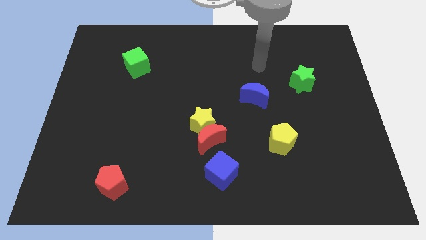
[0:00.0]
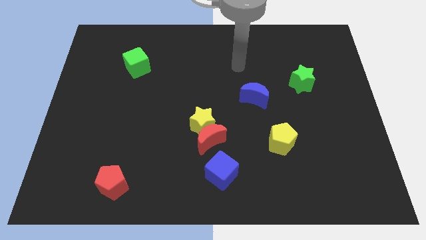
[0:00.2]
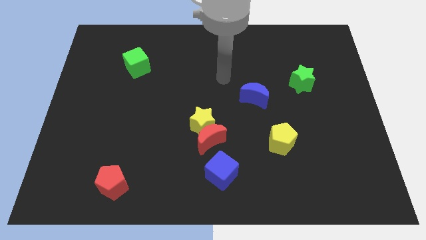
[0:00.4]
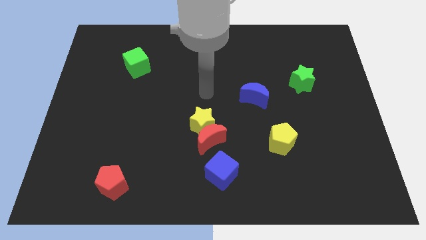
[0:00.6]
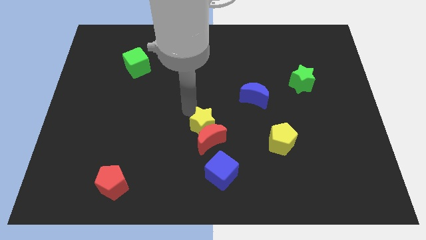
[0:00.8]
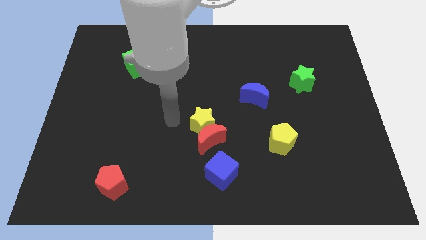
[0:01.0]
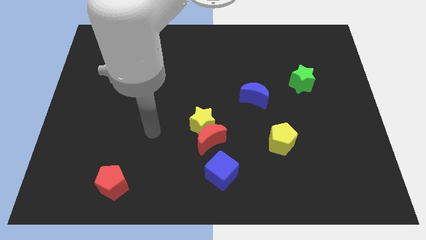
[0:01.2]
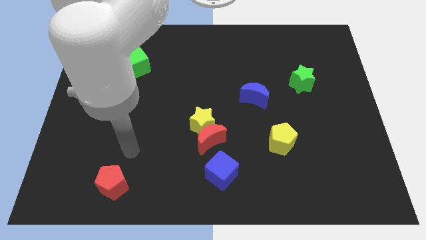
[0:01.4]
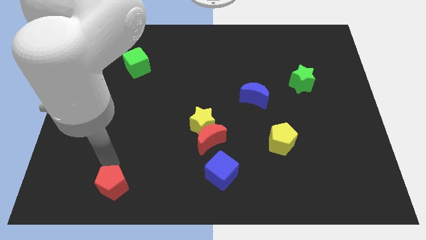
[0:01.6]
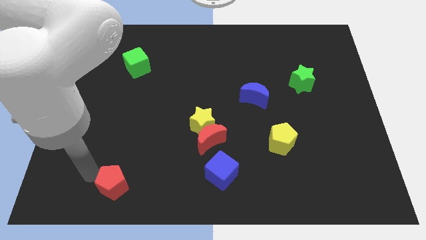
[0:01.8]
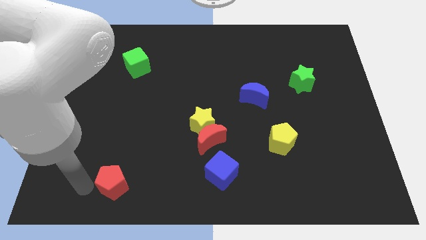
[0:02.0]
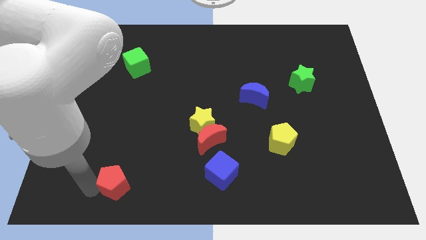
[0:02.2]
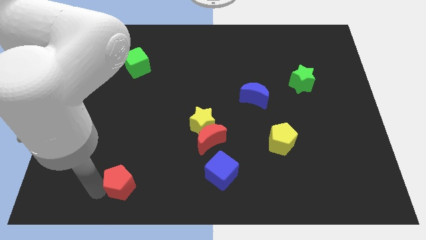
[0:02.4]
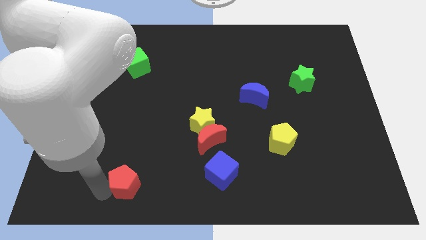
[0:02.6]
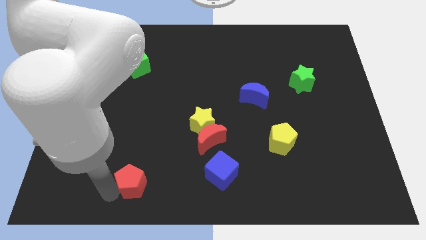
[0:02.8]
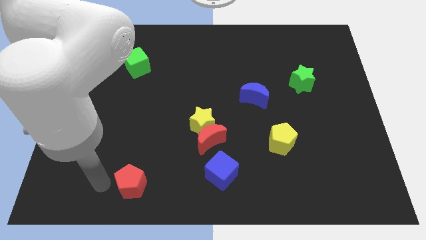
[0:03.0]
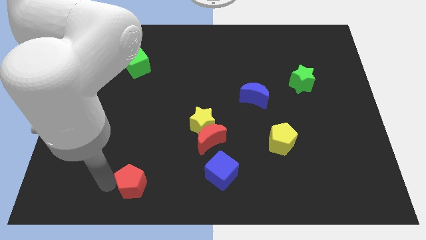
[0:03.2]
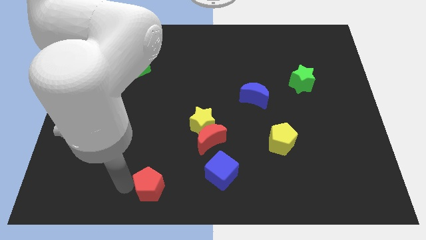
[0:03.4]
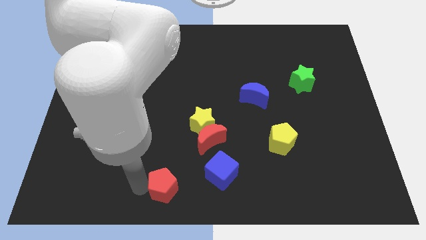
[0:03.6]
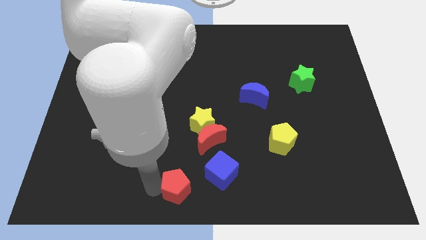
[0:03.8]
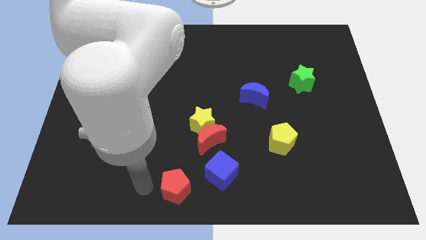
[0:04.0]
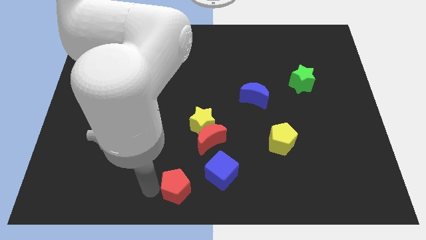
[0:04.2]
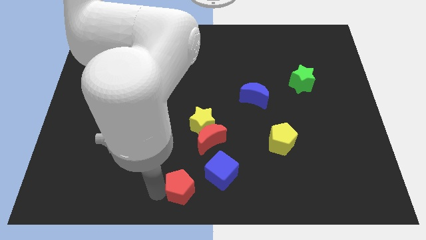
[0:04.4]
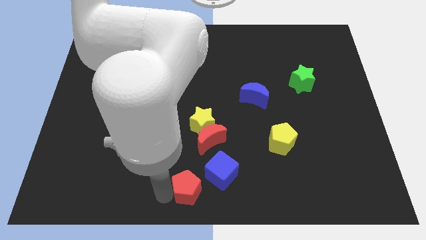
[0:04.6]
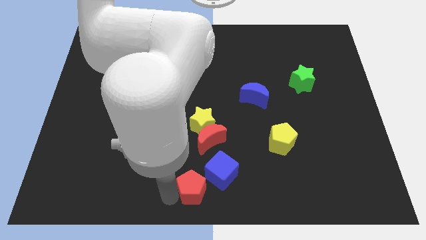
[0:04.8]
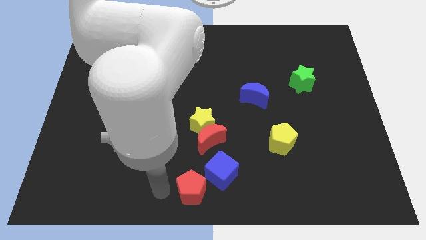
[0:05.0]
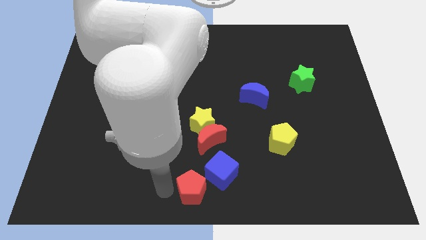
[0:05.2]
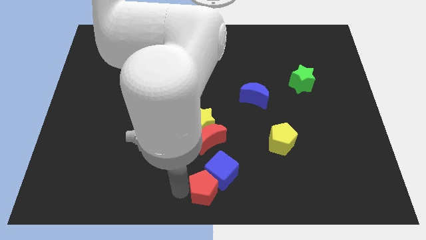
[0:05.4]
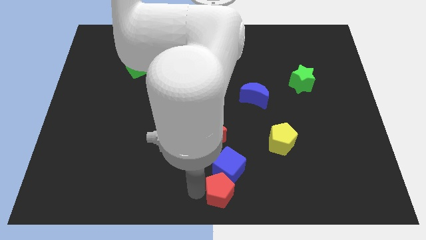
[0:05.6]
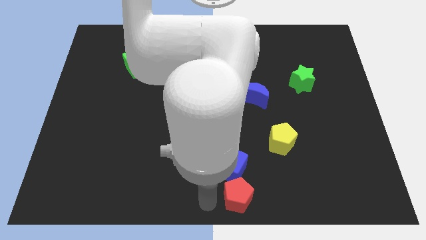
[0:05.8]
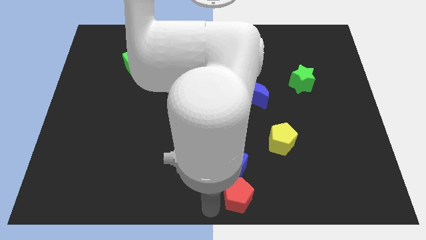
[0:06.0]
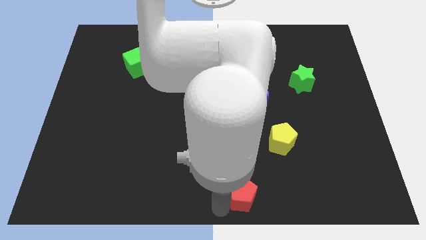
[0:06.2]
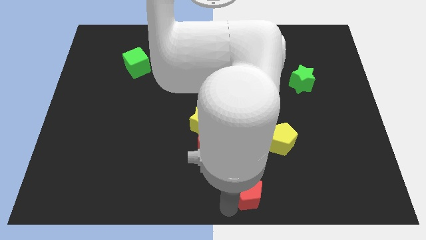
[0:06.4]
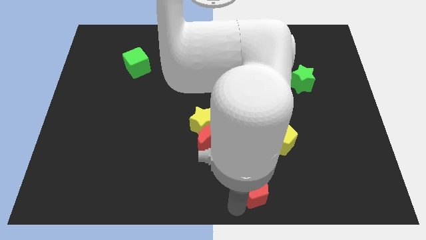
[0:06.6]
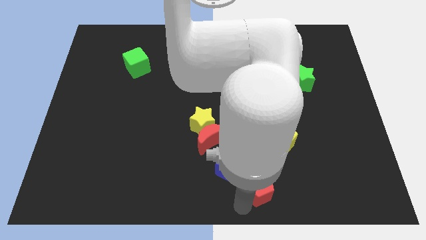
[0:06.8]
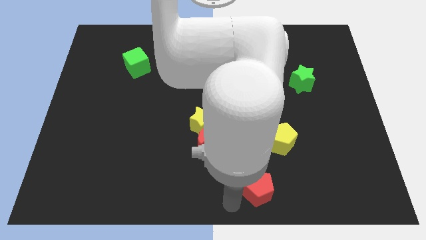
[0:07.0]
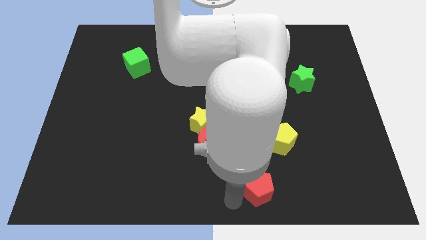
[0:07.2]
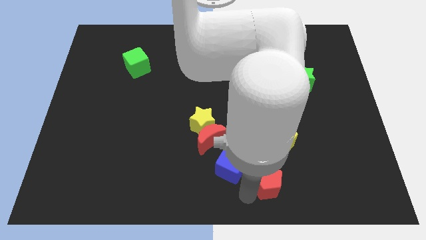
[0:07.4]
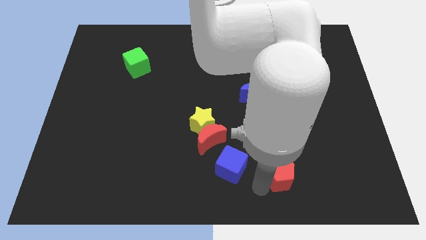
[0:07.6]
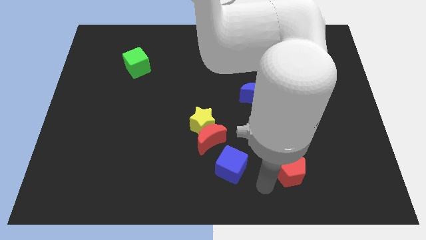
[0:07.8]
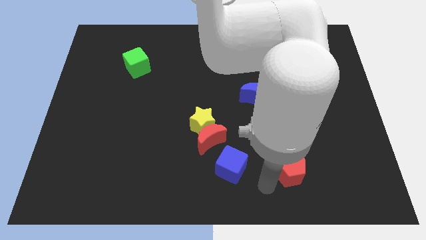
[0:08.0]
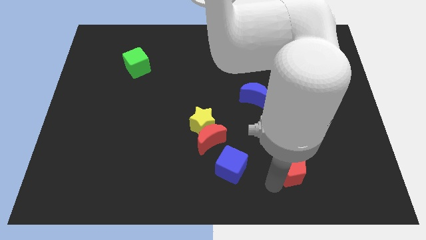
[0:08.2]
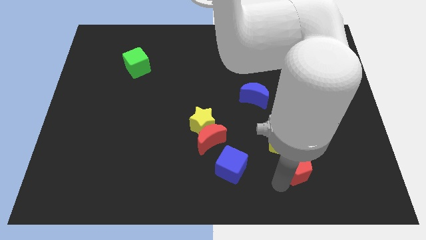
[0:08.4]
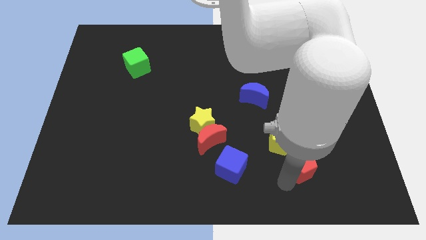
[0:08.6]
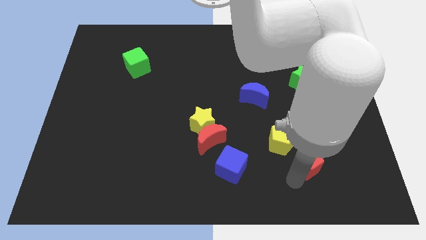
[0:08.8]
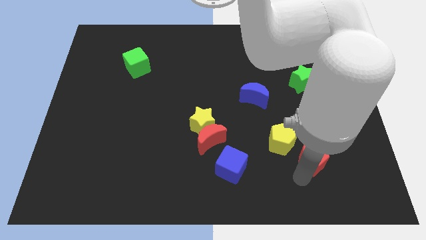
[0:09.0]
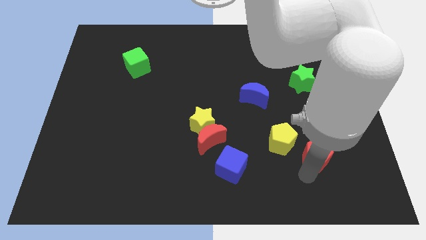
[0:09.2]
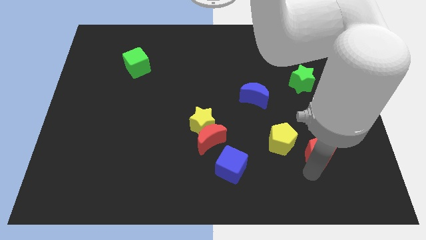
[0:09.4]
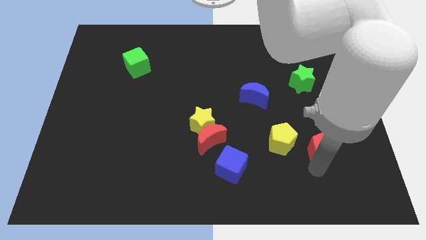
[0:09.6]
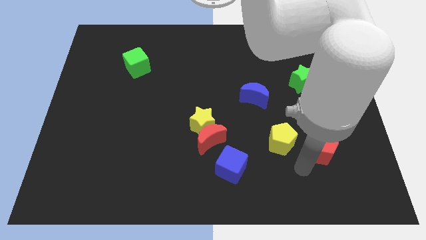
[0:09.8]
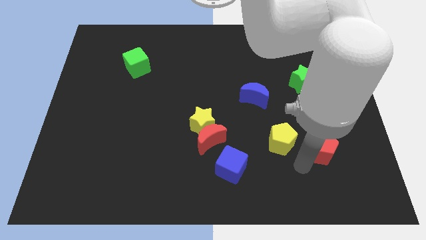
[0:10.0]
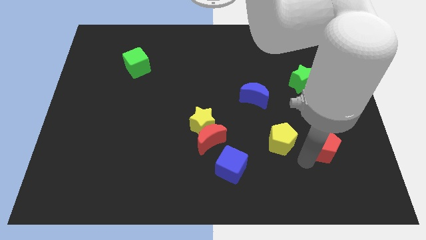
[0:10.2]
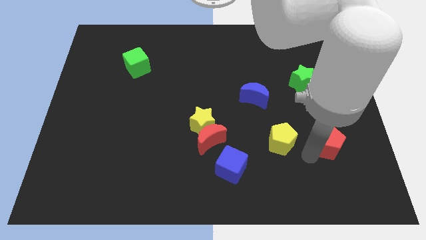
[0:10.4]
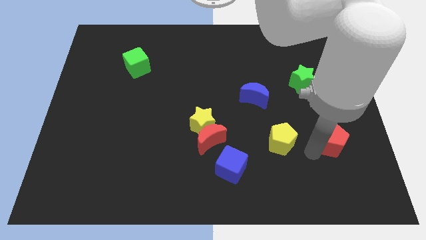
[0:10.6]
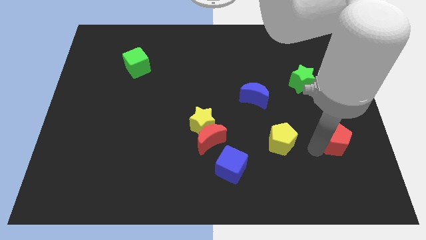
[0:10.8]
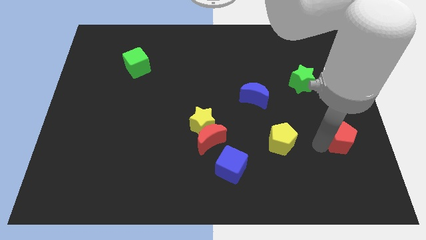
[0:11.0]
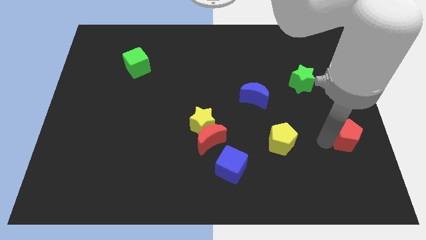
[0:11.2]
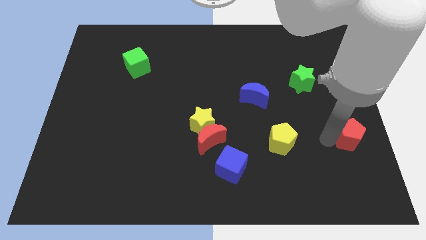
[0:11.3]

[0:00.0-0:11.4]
push the red pentagon to the right side of the board
